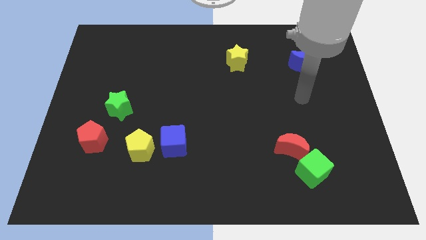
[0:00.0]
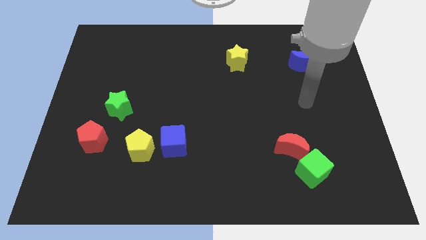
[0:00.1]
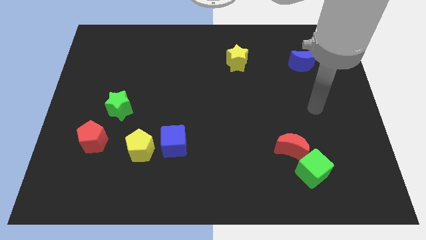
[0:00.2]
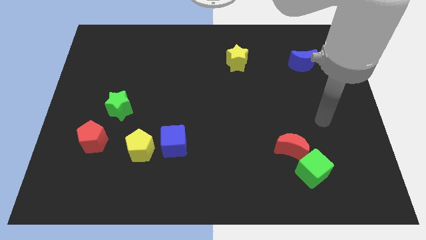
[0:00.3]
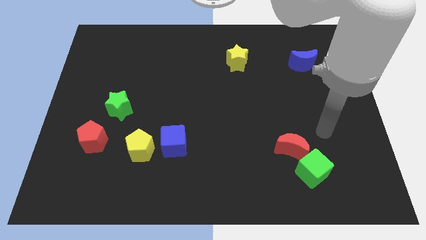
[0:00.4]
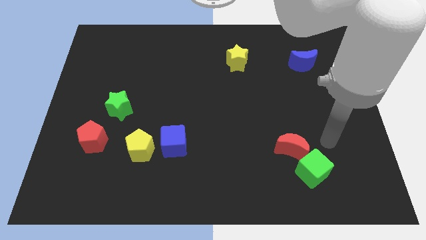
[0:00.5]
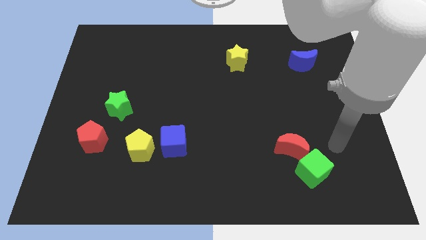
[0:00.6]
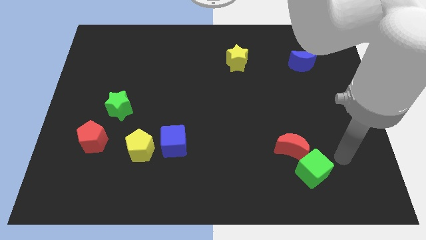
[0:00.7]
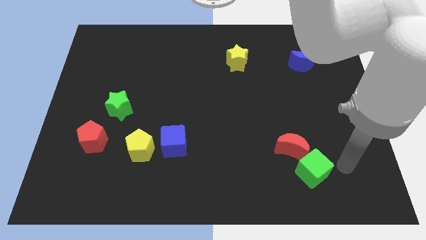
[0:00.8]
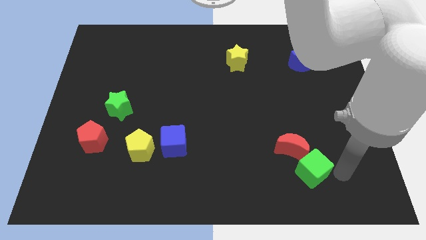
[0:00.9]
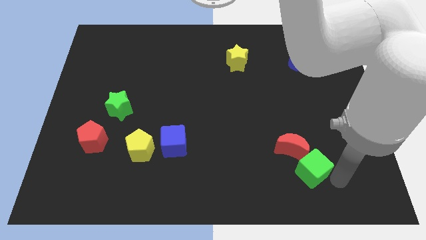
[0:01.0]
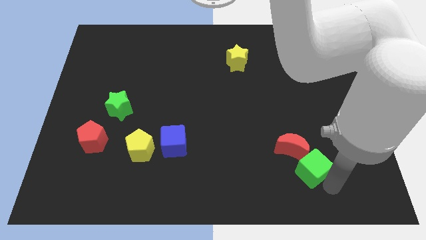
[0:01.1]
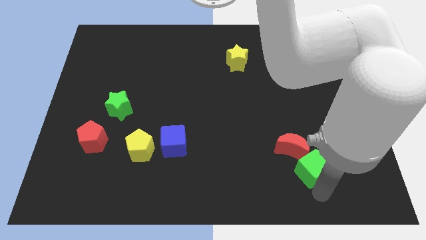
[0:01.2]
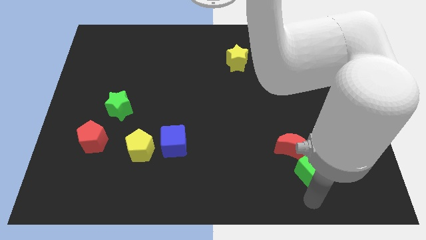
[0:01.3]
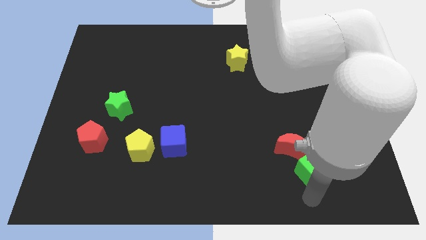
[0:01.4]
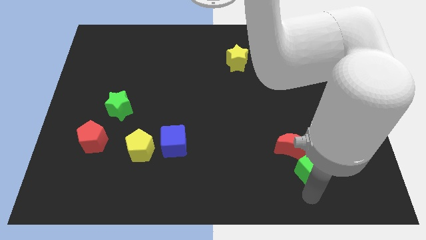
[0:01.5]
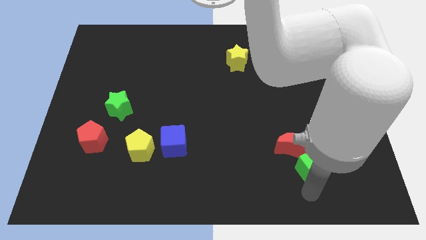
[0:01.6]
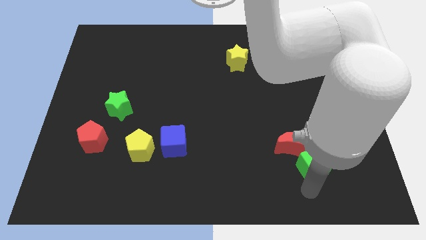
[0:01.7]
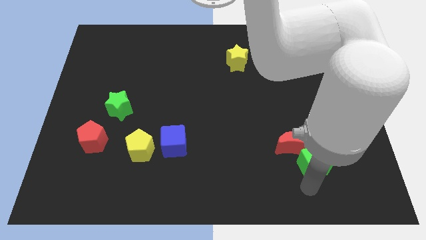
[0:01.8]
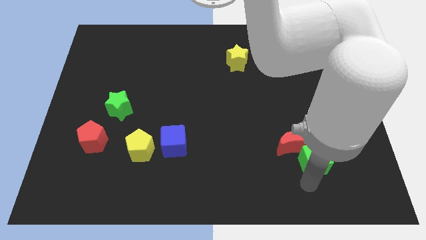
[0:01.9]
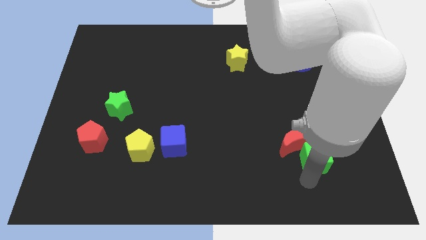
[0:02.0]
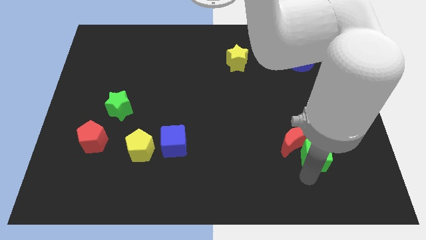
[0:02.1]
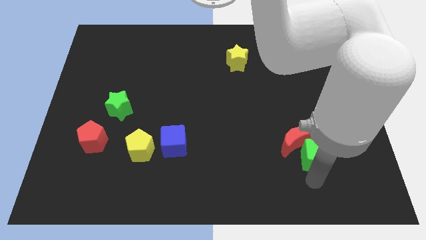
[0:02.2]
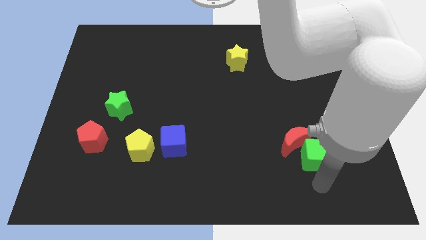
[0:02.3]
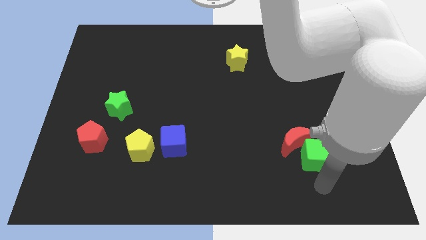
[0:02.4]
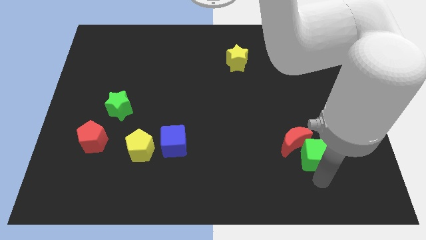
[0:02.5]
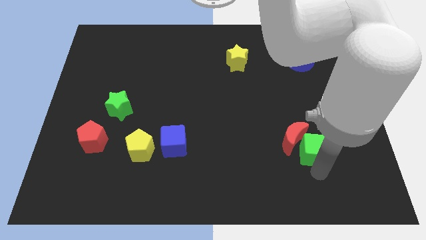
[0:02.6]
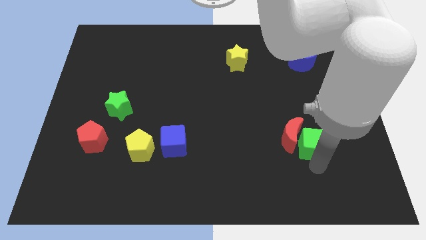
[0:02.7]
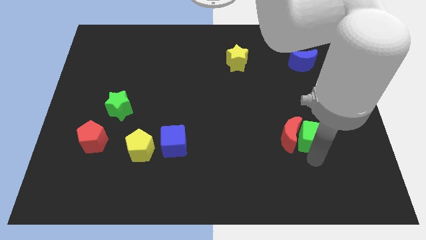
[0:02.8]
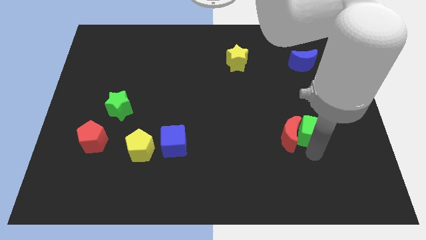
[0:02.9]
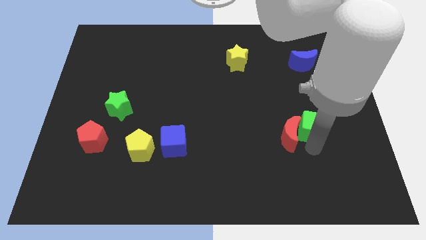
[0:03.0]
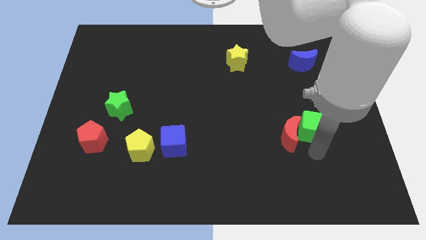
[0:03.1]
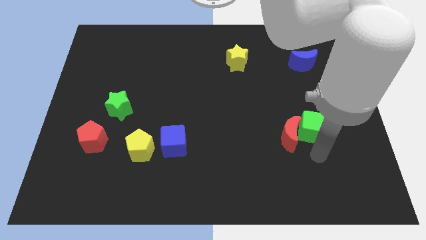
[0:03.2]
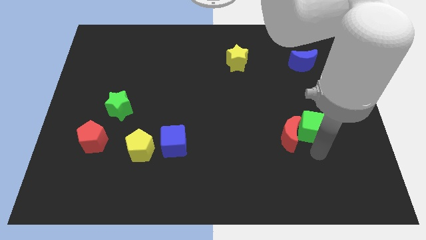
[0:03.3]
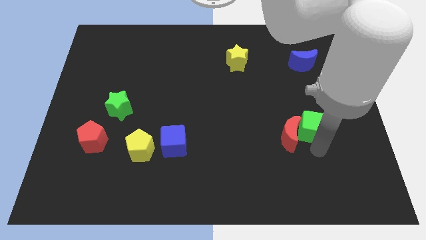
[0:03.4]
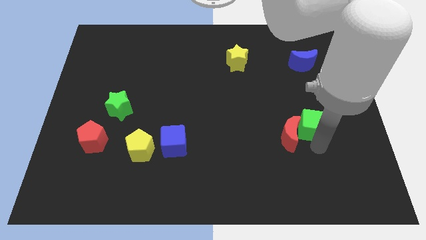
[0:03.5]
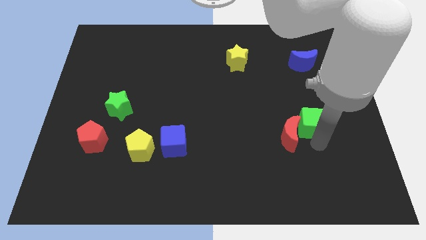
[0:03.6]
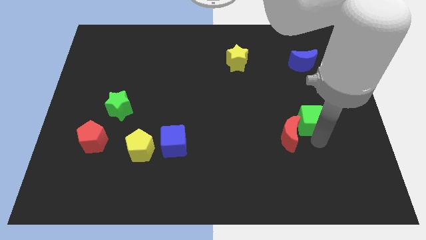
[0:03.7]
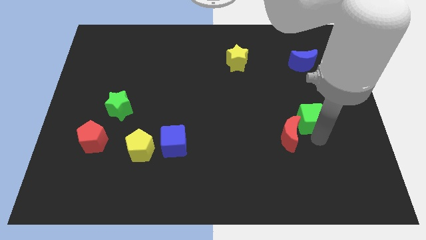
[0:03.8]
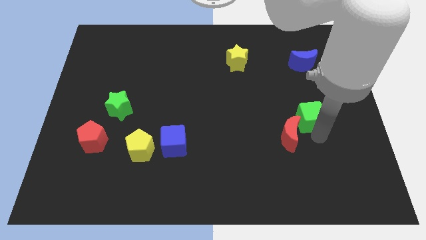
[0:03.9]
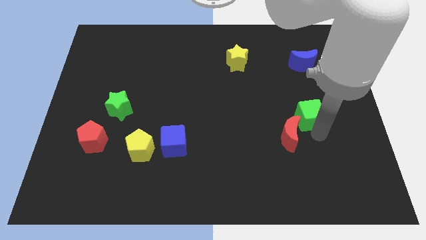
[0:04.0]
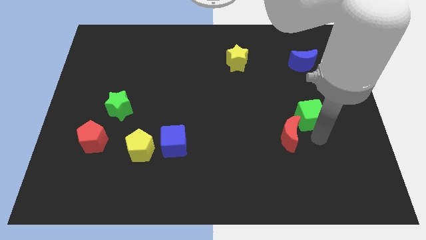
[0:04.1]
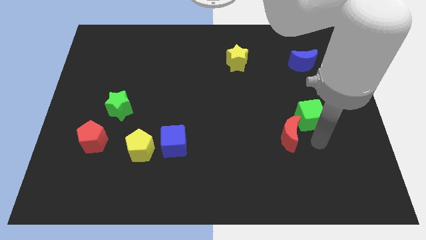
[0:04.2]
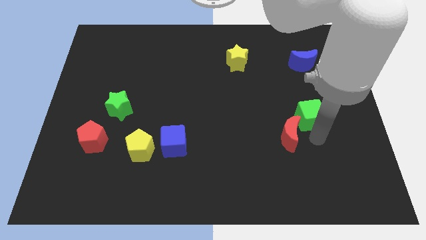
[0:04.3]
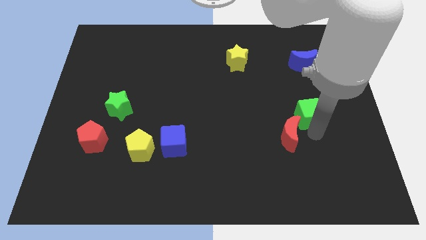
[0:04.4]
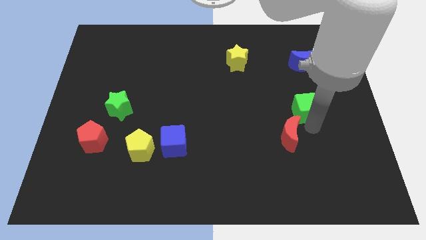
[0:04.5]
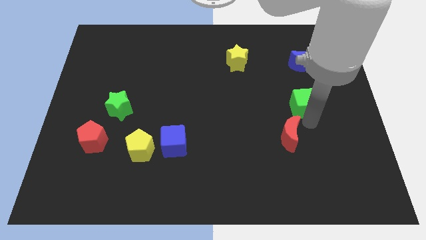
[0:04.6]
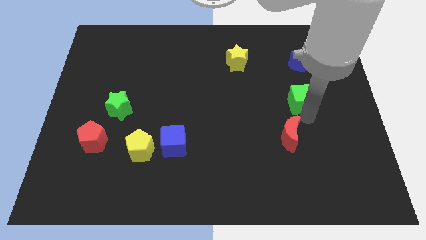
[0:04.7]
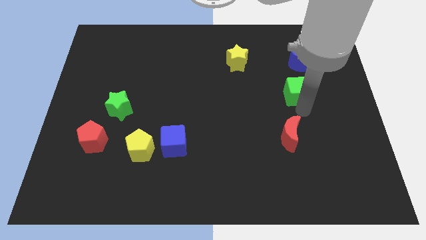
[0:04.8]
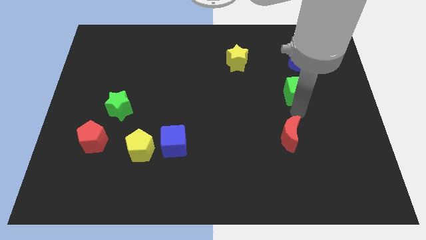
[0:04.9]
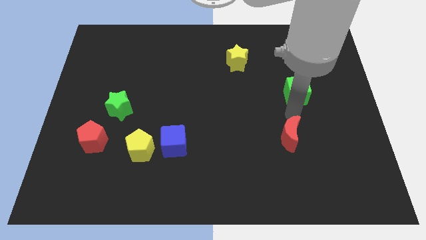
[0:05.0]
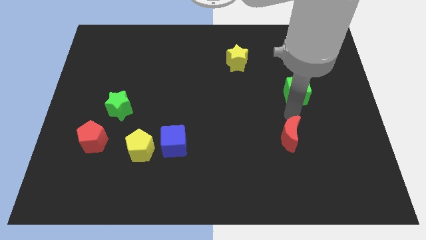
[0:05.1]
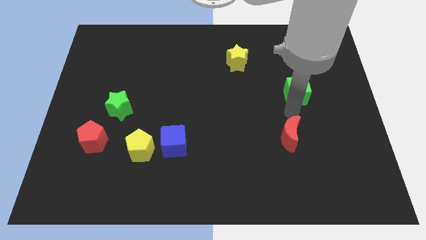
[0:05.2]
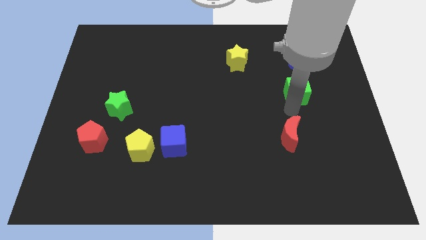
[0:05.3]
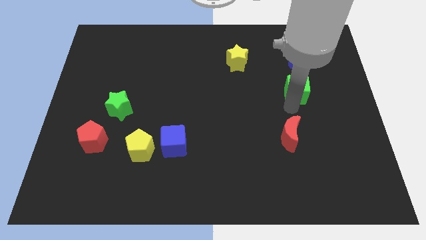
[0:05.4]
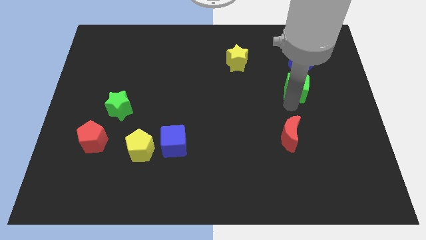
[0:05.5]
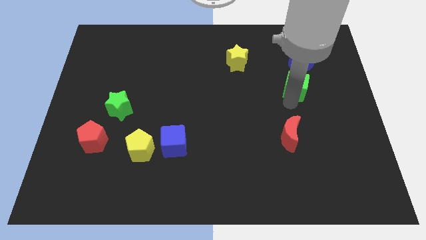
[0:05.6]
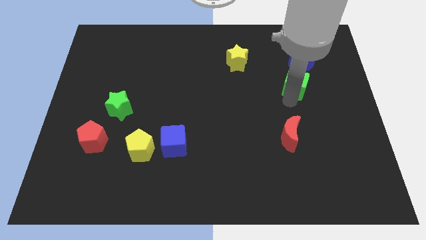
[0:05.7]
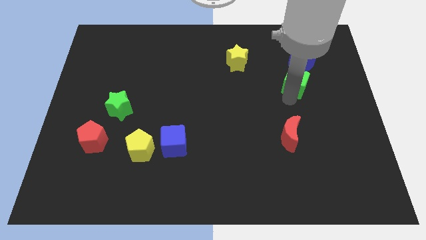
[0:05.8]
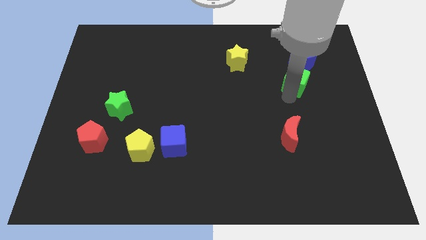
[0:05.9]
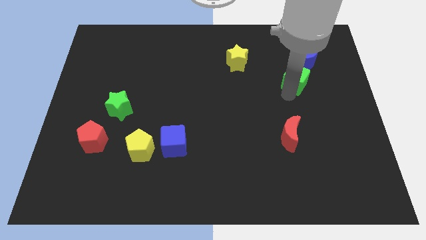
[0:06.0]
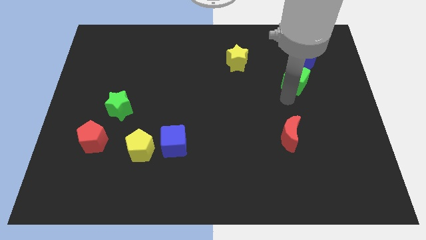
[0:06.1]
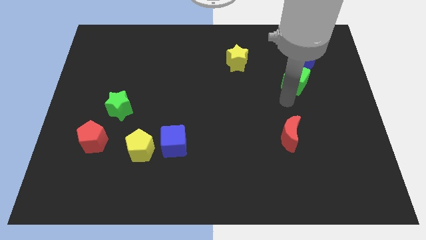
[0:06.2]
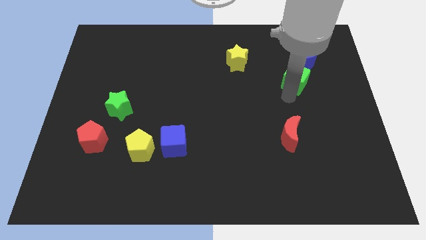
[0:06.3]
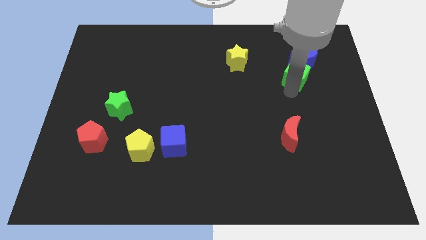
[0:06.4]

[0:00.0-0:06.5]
slide the green cube next to the blue moon
